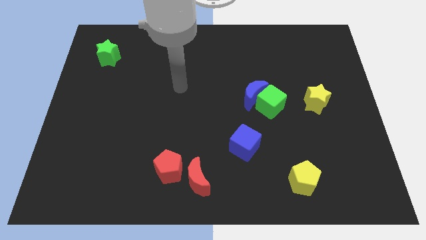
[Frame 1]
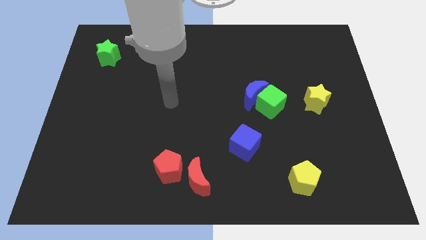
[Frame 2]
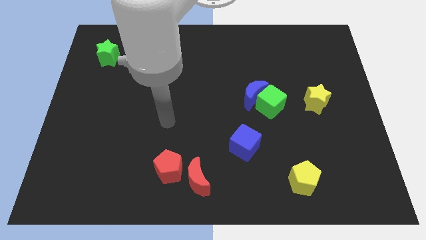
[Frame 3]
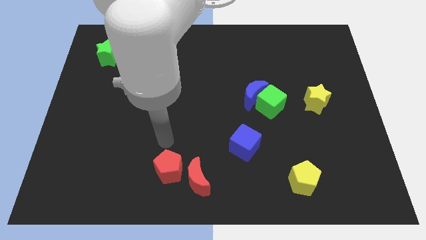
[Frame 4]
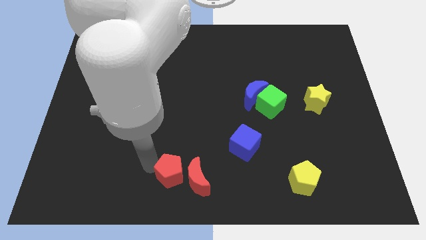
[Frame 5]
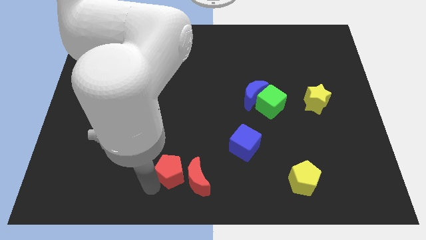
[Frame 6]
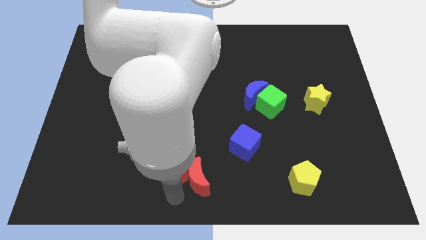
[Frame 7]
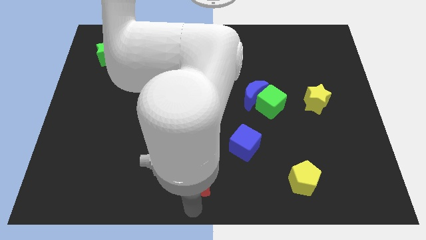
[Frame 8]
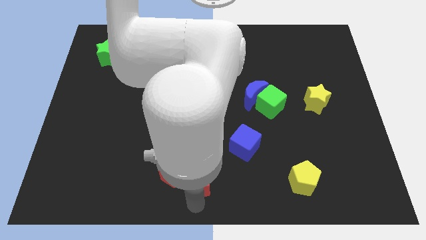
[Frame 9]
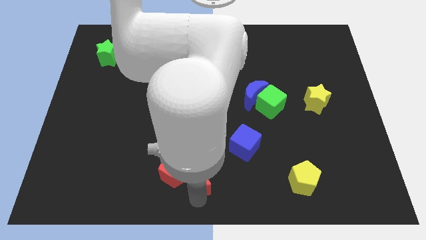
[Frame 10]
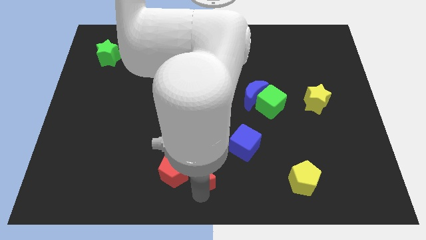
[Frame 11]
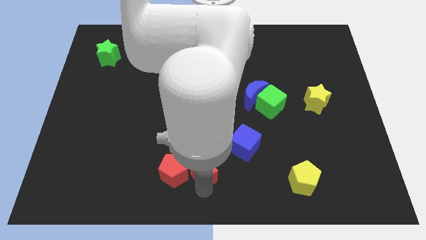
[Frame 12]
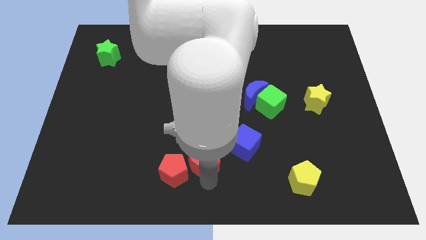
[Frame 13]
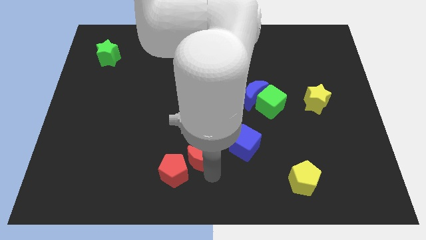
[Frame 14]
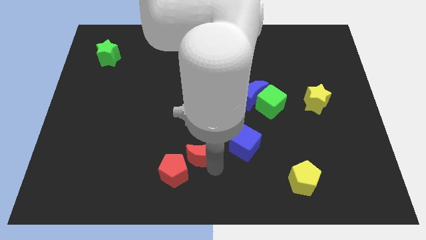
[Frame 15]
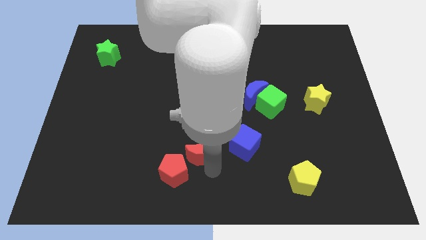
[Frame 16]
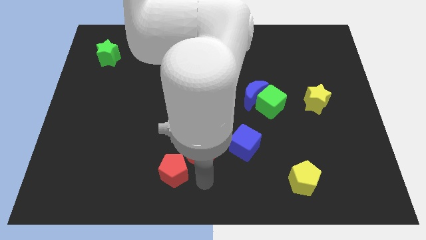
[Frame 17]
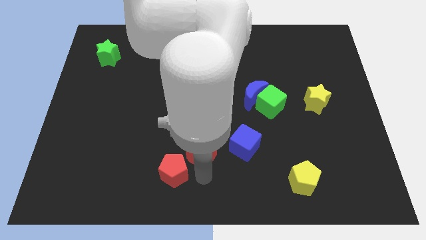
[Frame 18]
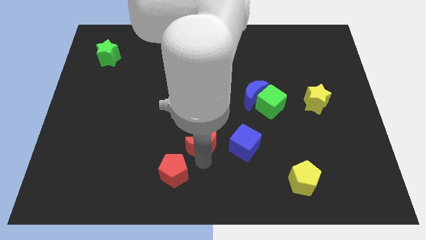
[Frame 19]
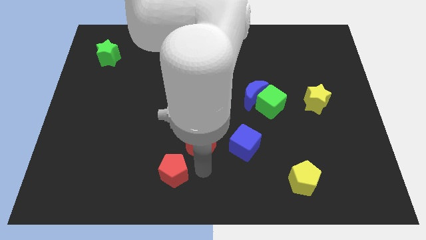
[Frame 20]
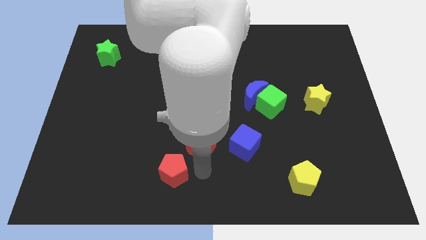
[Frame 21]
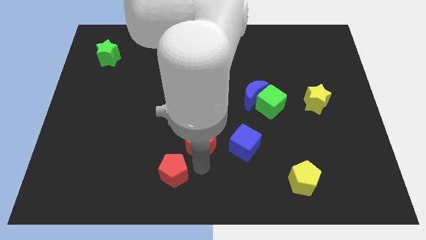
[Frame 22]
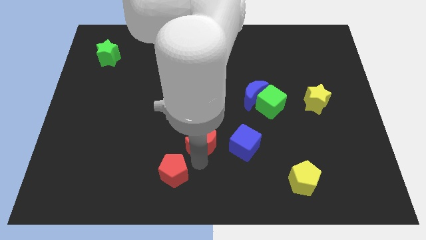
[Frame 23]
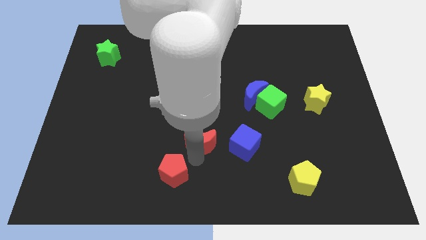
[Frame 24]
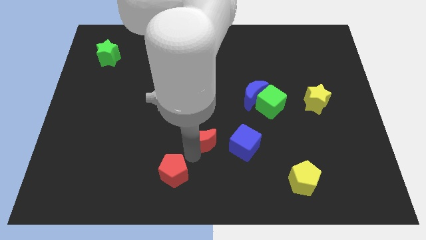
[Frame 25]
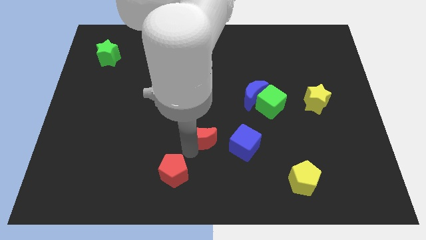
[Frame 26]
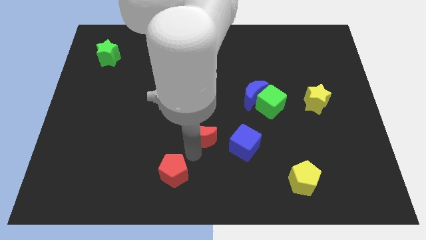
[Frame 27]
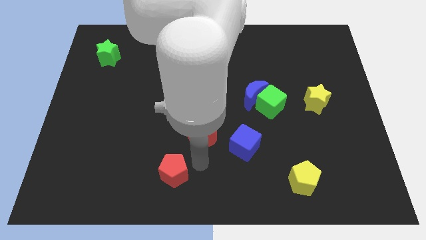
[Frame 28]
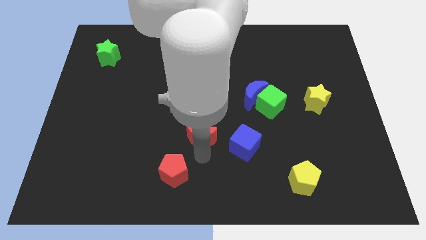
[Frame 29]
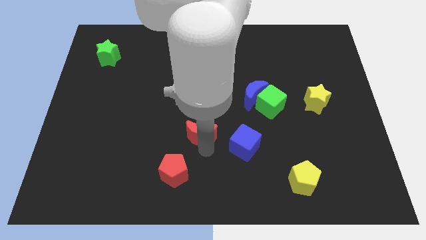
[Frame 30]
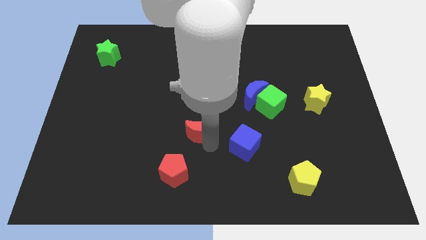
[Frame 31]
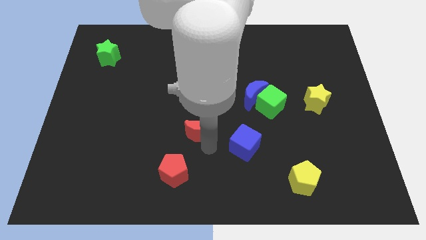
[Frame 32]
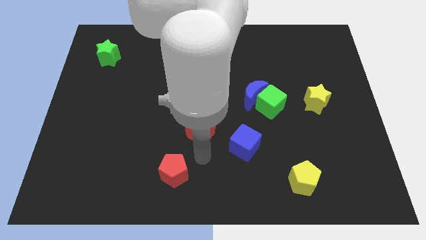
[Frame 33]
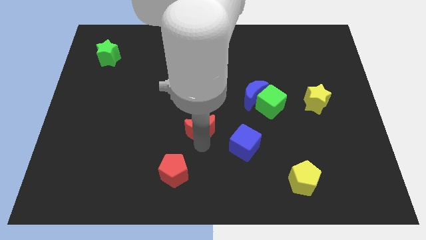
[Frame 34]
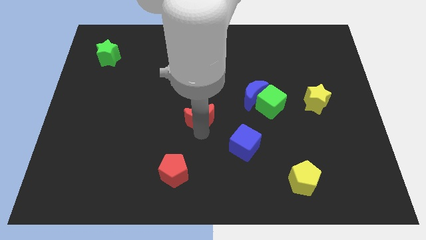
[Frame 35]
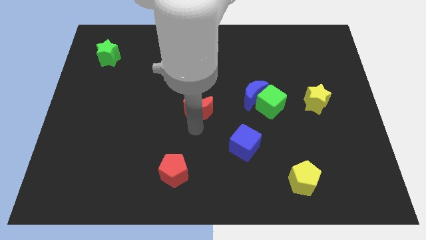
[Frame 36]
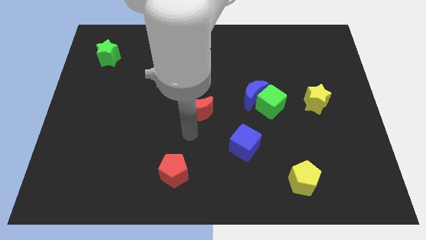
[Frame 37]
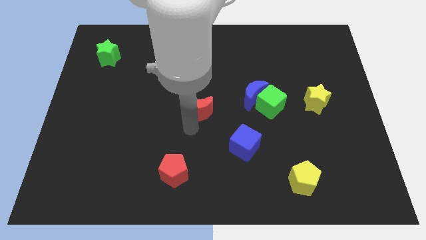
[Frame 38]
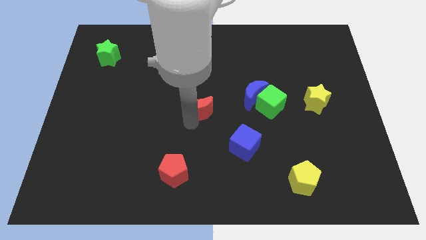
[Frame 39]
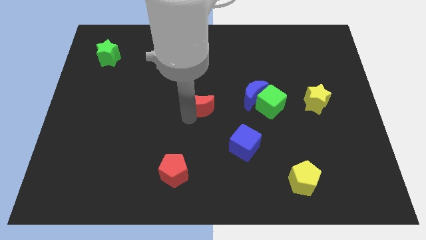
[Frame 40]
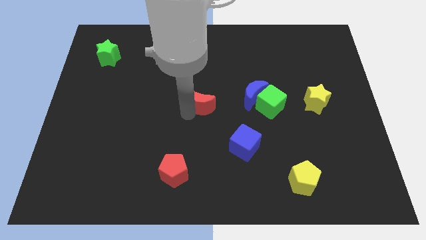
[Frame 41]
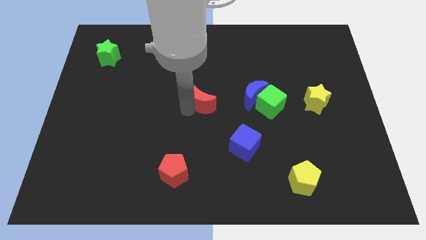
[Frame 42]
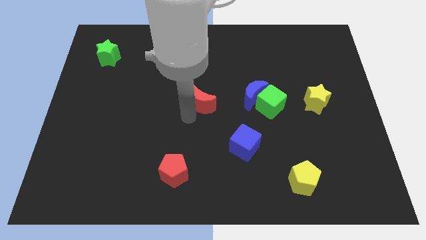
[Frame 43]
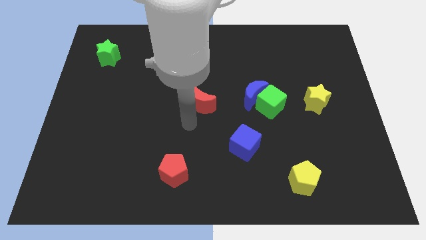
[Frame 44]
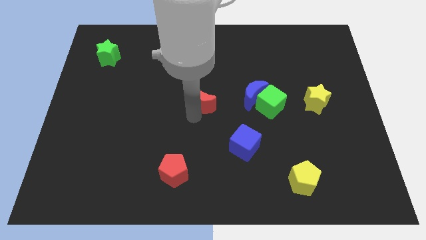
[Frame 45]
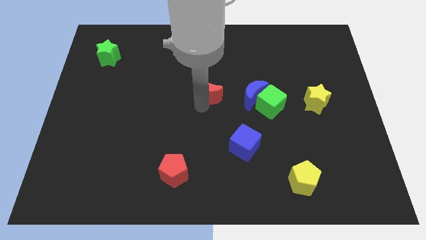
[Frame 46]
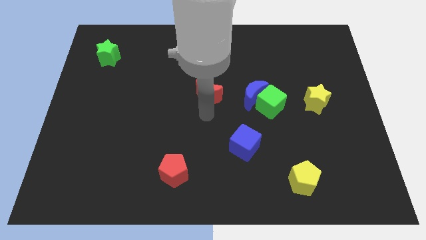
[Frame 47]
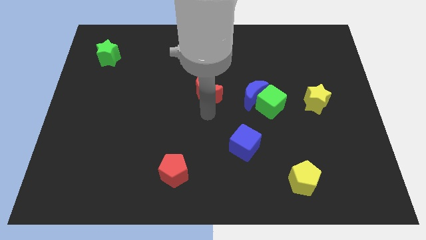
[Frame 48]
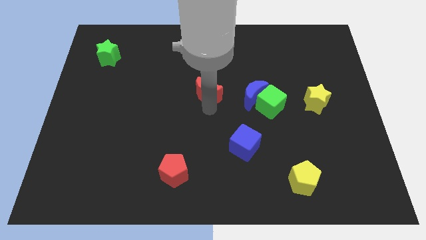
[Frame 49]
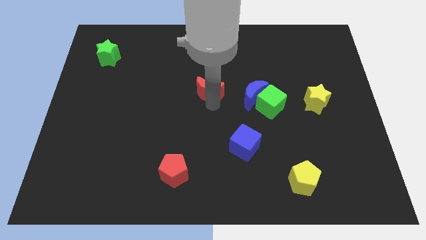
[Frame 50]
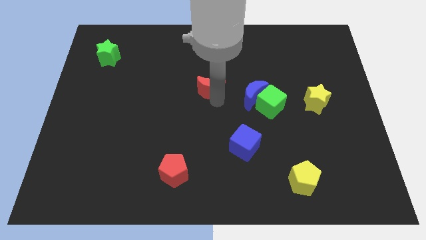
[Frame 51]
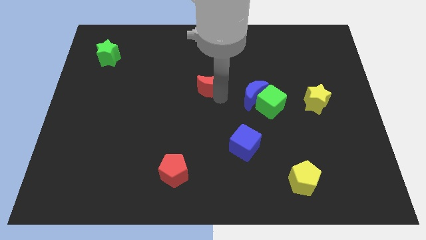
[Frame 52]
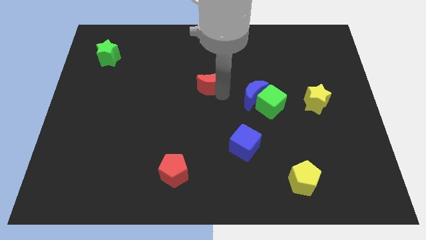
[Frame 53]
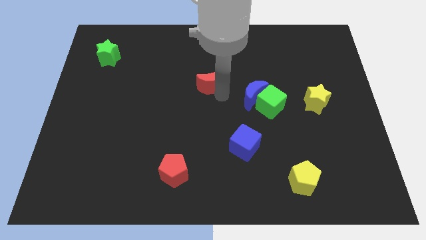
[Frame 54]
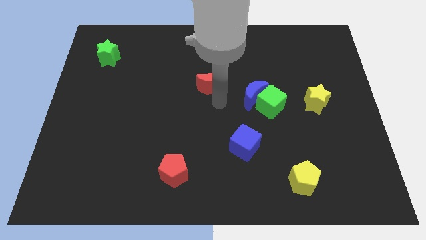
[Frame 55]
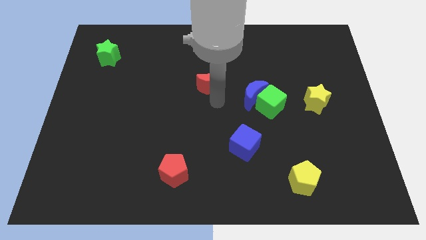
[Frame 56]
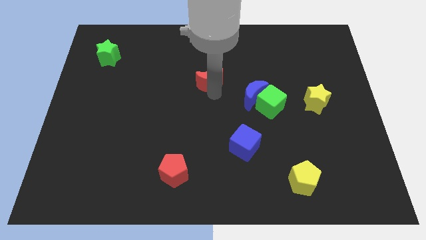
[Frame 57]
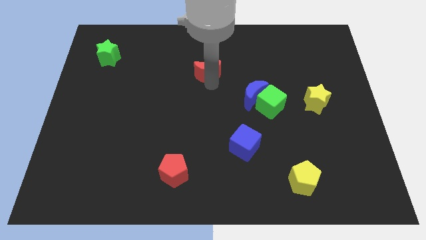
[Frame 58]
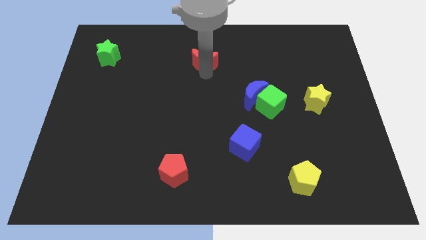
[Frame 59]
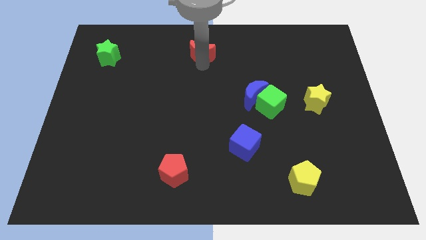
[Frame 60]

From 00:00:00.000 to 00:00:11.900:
put the red moon to the top

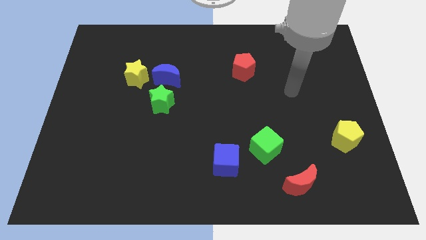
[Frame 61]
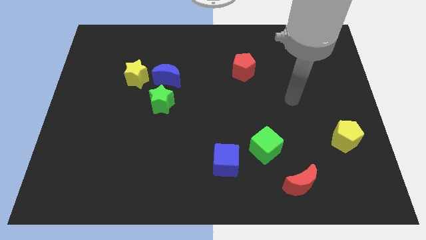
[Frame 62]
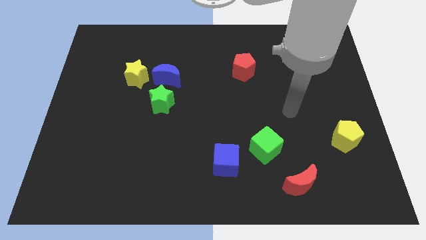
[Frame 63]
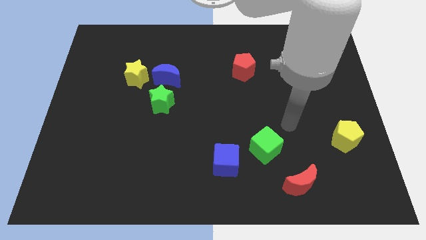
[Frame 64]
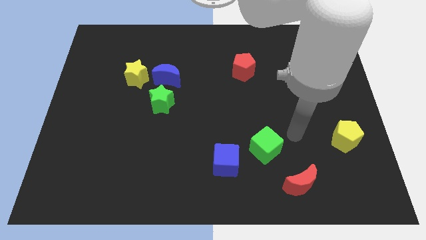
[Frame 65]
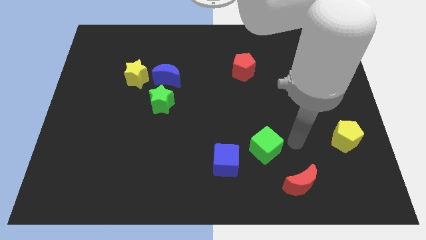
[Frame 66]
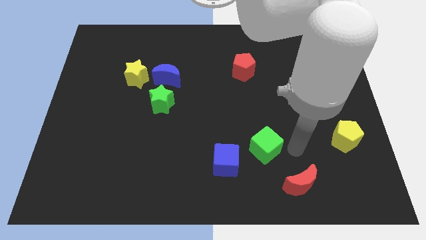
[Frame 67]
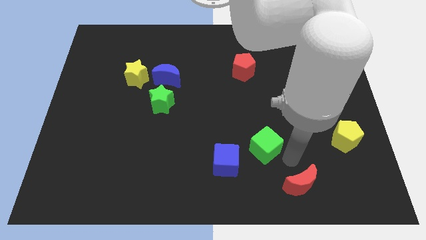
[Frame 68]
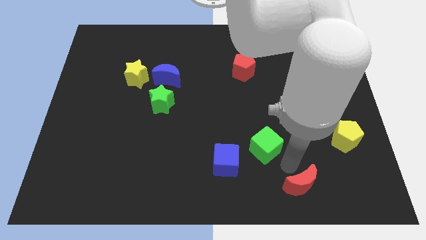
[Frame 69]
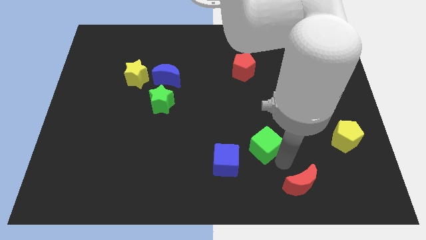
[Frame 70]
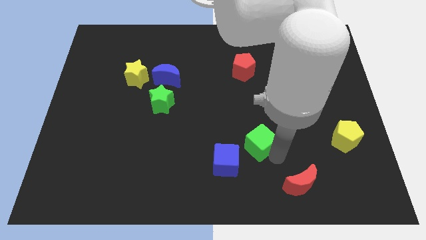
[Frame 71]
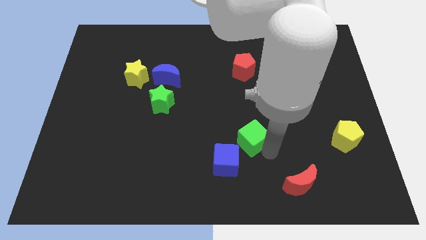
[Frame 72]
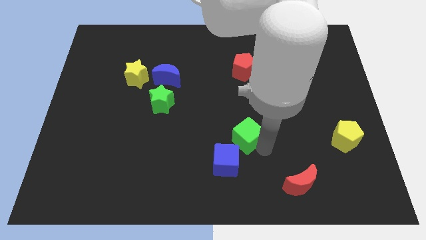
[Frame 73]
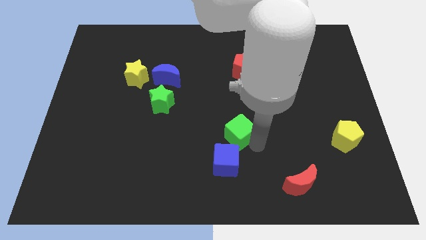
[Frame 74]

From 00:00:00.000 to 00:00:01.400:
push the green cube to the center

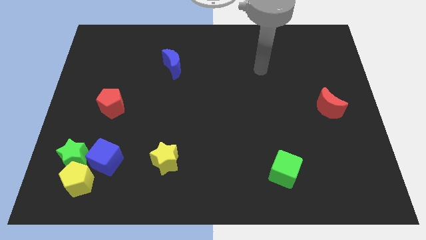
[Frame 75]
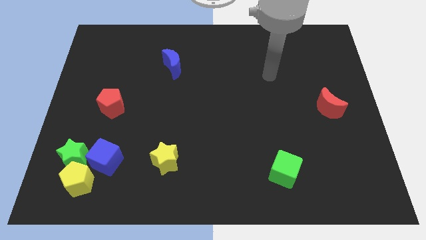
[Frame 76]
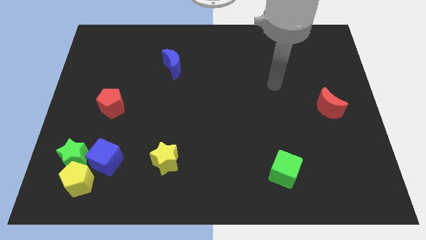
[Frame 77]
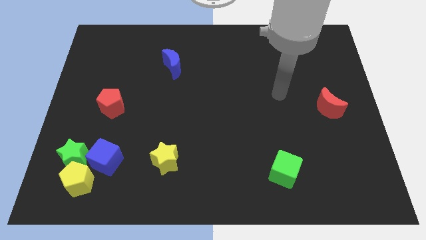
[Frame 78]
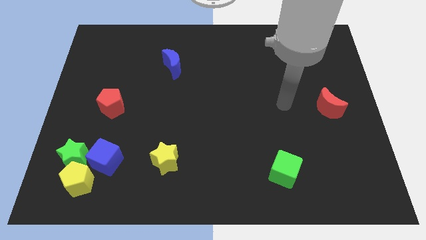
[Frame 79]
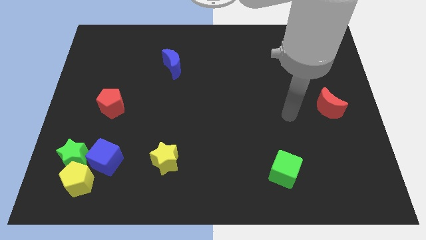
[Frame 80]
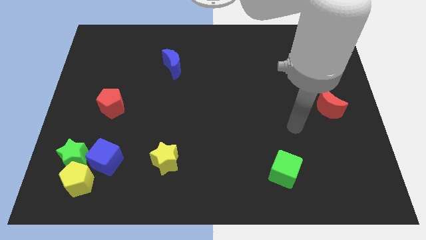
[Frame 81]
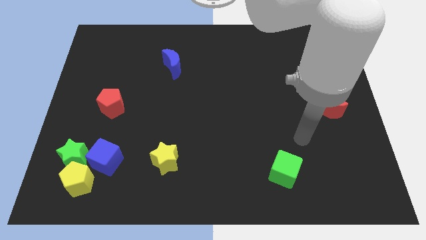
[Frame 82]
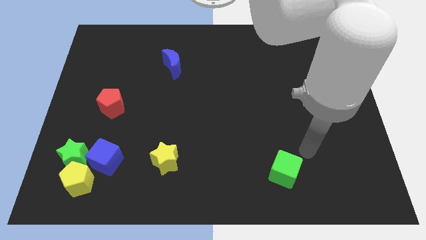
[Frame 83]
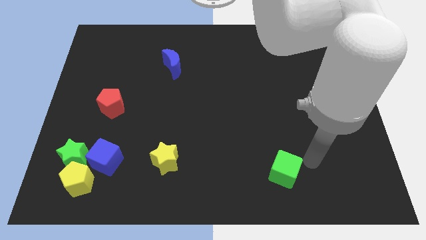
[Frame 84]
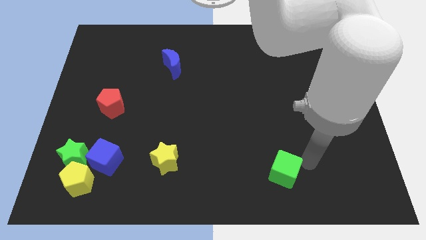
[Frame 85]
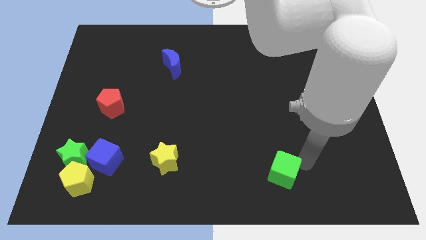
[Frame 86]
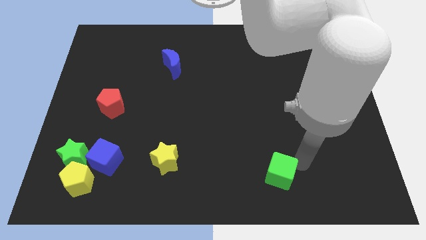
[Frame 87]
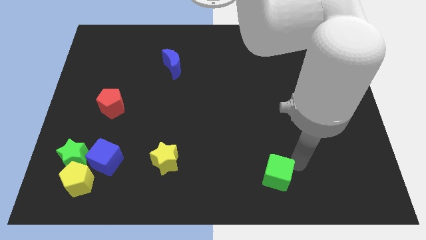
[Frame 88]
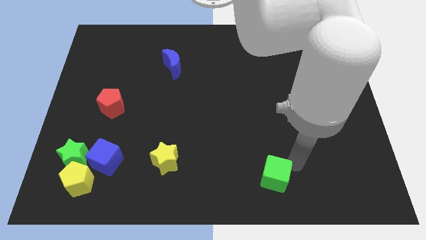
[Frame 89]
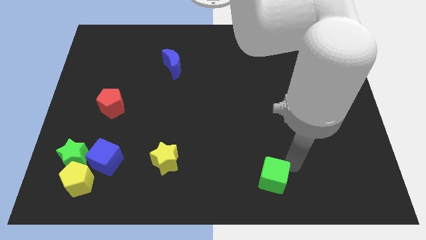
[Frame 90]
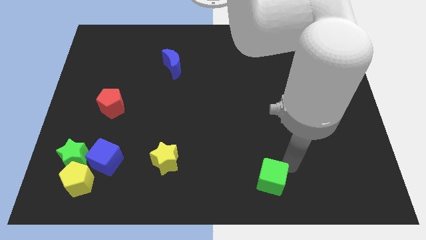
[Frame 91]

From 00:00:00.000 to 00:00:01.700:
slide the green cube to the bottom
